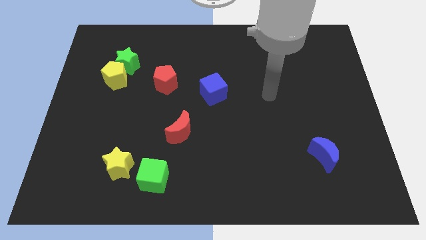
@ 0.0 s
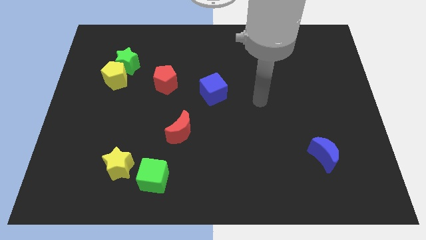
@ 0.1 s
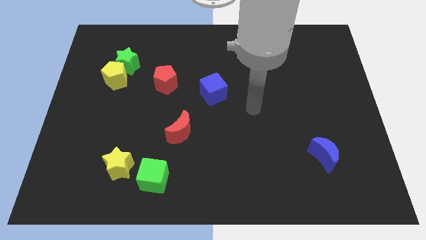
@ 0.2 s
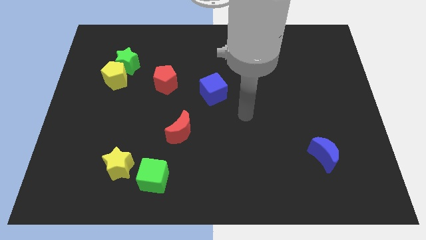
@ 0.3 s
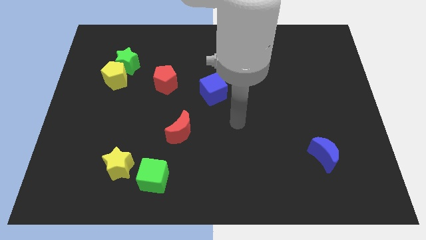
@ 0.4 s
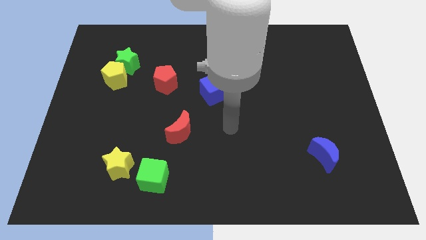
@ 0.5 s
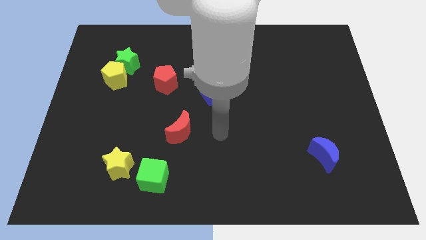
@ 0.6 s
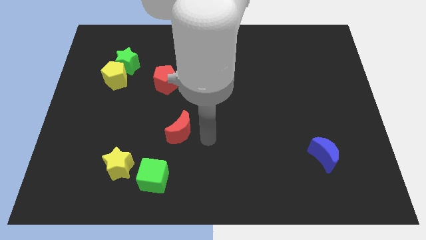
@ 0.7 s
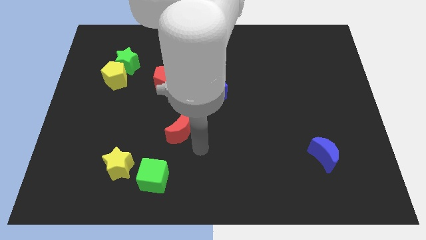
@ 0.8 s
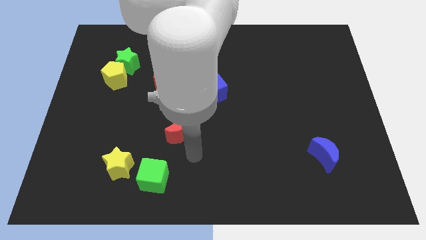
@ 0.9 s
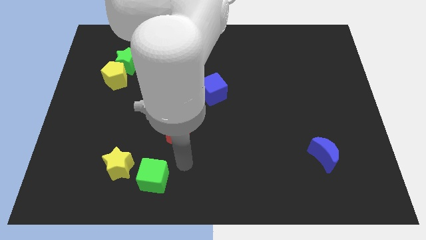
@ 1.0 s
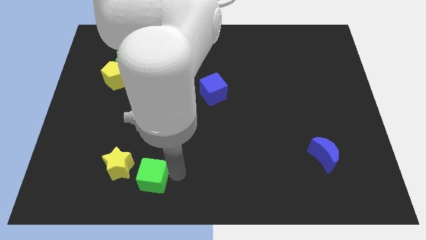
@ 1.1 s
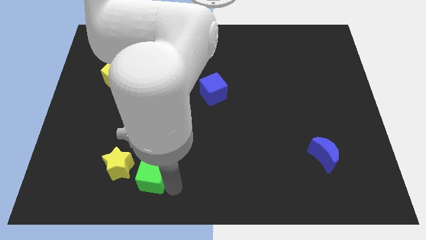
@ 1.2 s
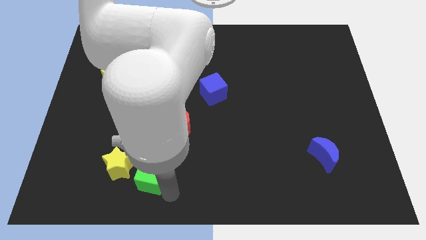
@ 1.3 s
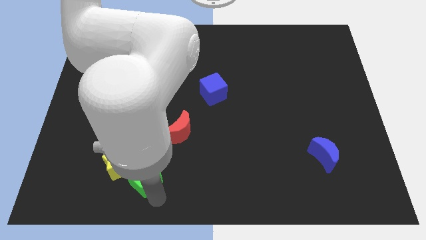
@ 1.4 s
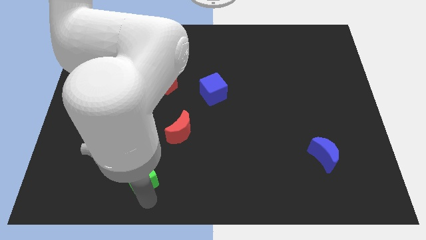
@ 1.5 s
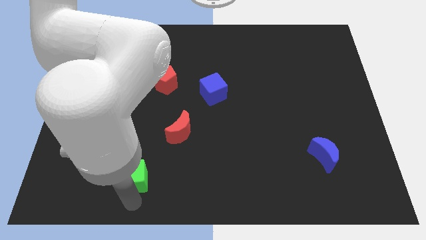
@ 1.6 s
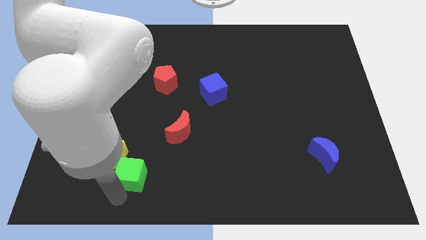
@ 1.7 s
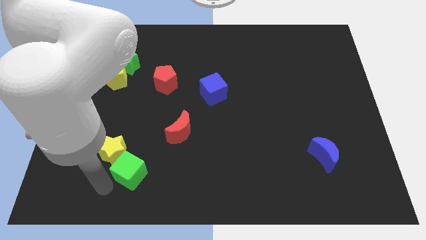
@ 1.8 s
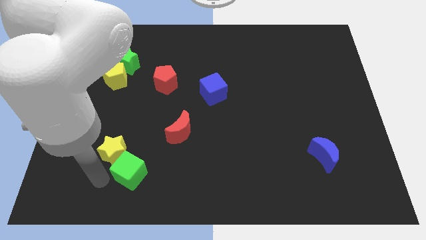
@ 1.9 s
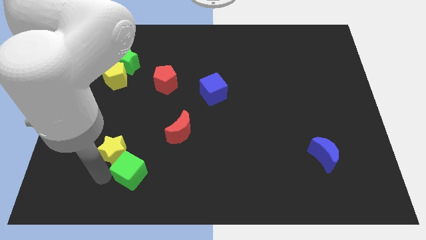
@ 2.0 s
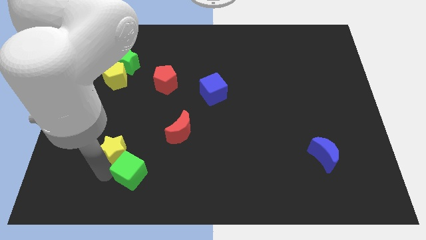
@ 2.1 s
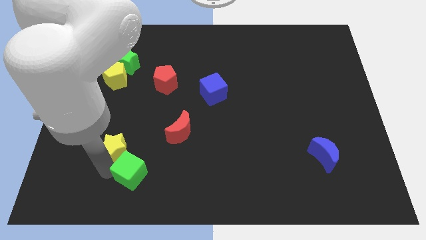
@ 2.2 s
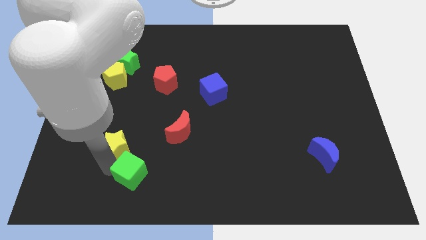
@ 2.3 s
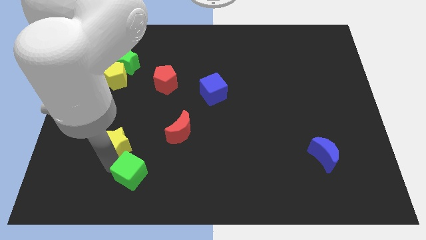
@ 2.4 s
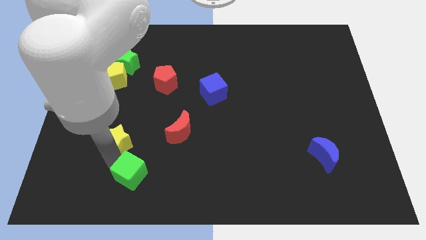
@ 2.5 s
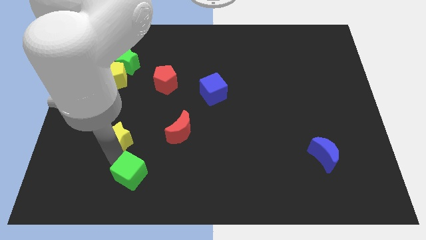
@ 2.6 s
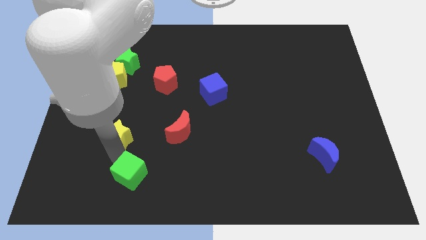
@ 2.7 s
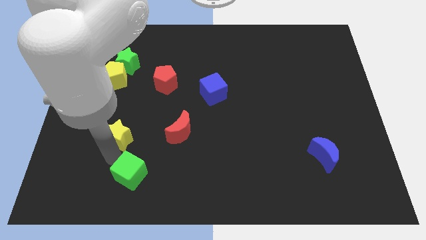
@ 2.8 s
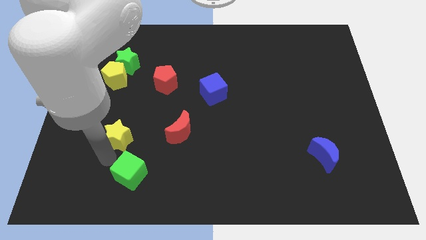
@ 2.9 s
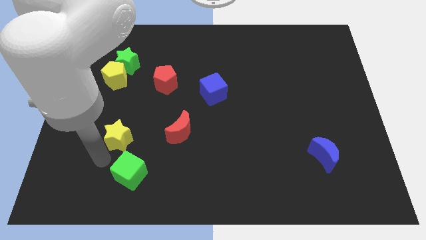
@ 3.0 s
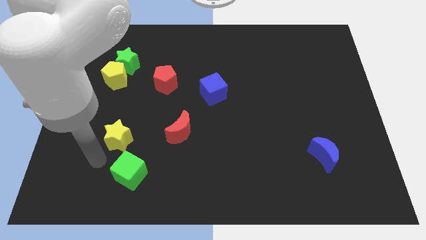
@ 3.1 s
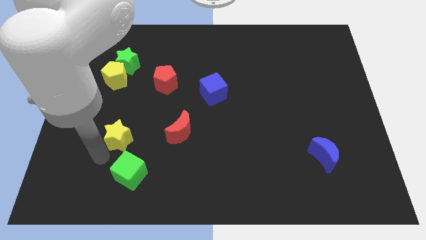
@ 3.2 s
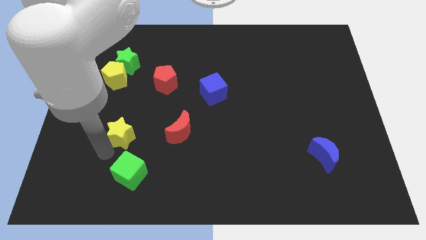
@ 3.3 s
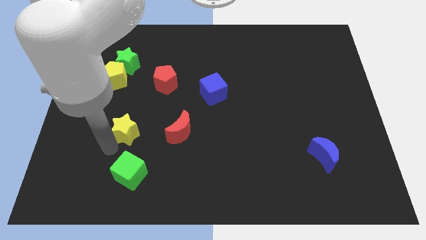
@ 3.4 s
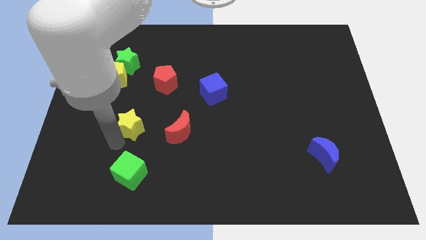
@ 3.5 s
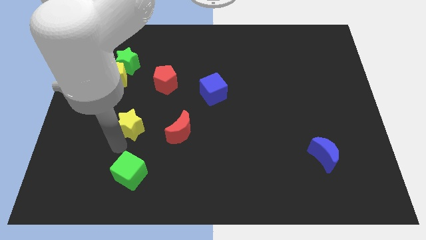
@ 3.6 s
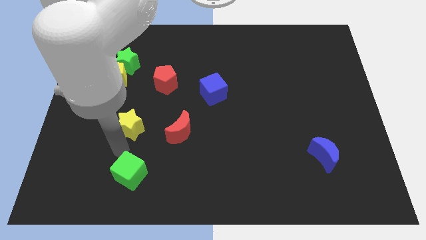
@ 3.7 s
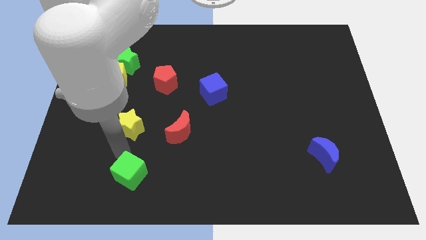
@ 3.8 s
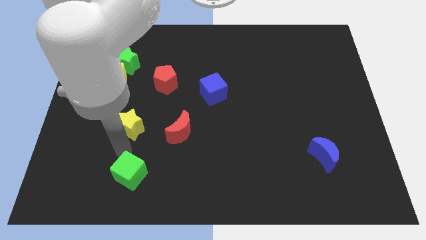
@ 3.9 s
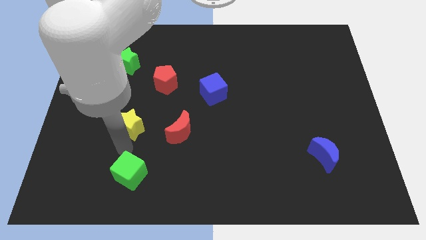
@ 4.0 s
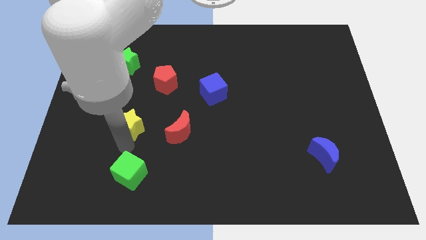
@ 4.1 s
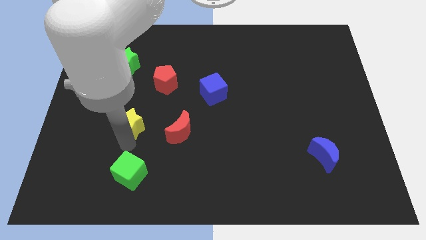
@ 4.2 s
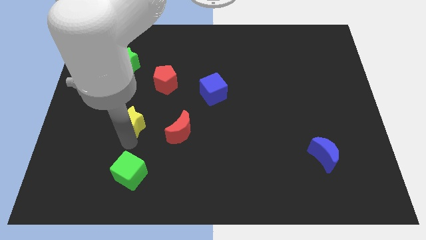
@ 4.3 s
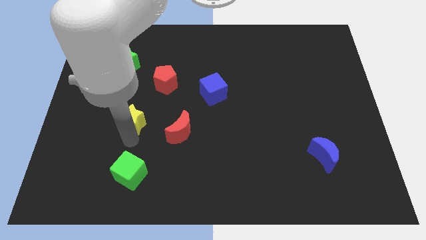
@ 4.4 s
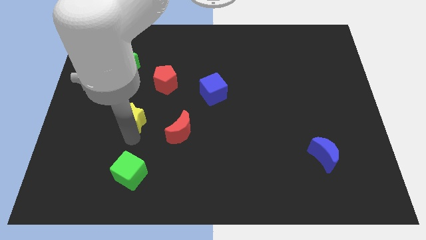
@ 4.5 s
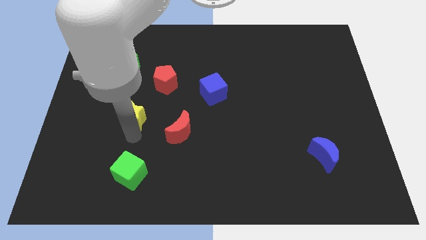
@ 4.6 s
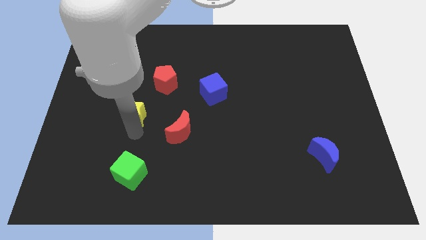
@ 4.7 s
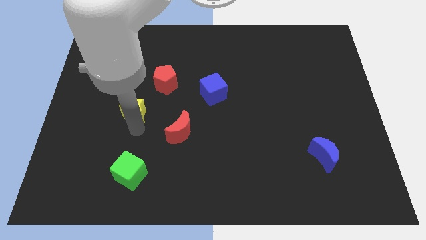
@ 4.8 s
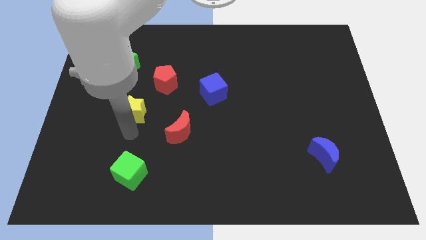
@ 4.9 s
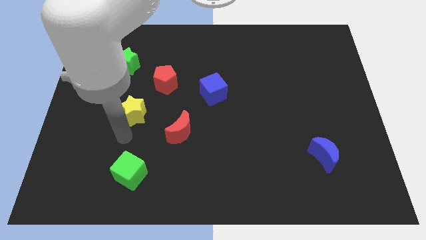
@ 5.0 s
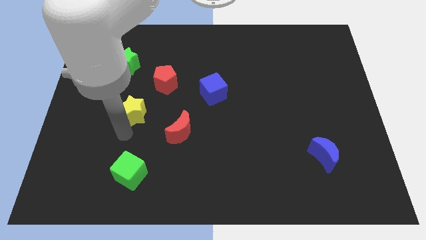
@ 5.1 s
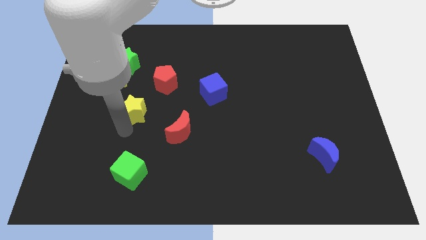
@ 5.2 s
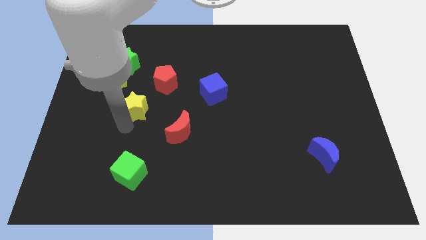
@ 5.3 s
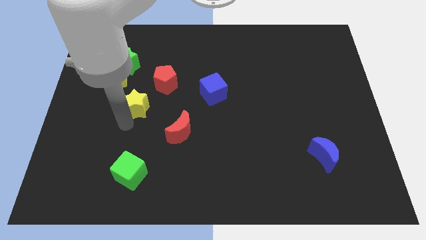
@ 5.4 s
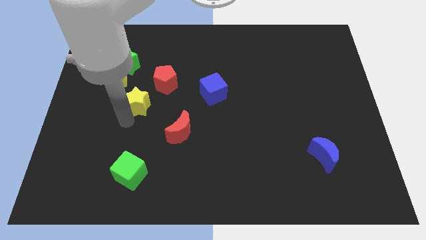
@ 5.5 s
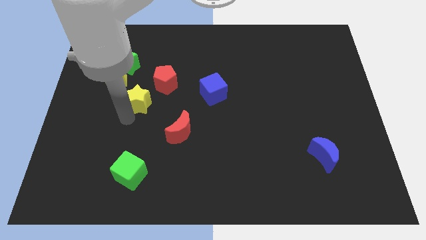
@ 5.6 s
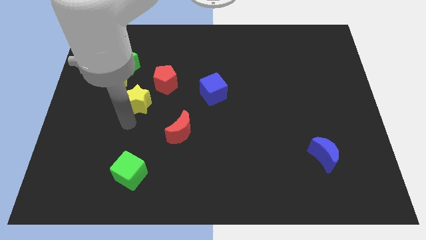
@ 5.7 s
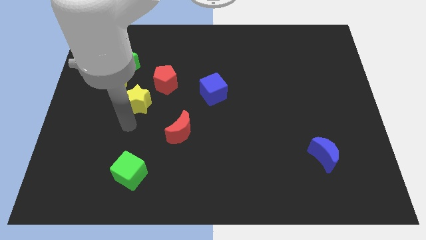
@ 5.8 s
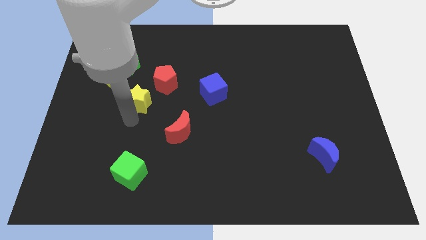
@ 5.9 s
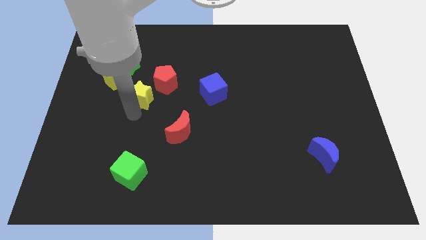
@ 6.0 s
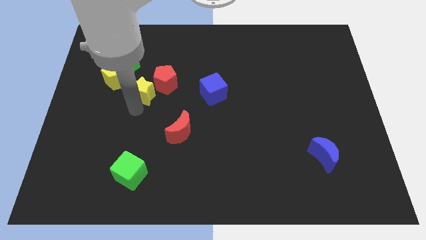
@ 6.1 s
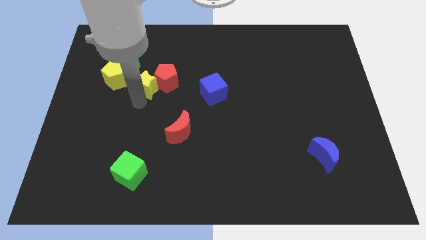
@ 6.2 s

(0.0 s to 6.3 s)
push the yellow star upwards

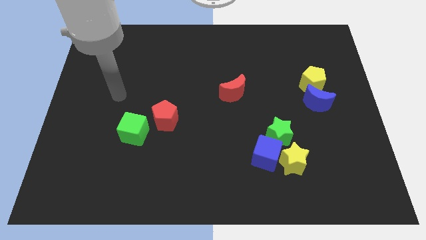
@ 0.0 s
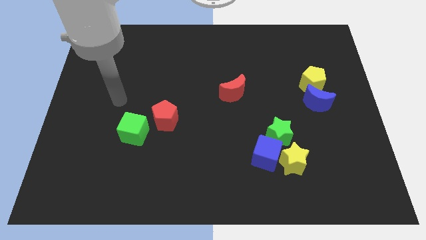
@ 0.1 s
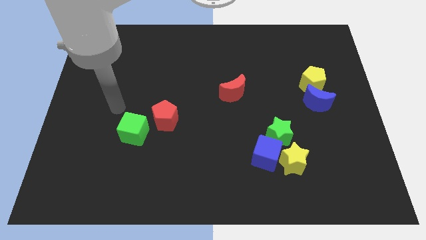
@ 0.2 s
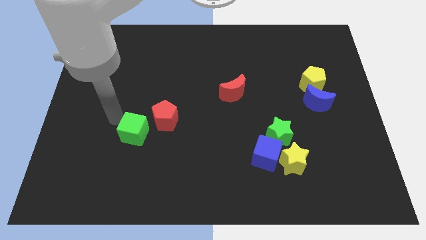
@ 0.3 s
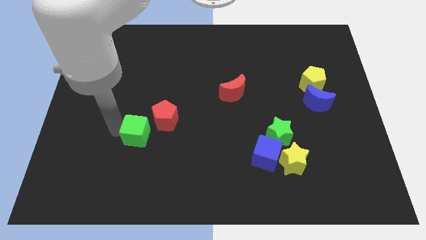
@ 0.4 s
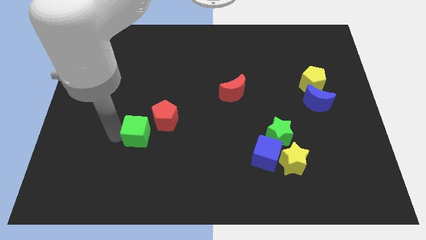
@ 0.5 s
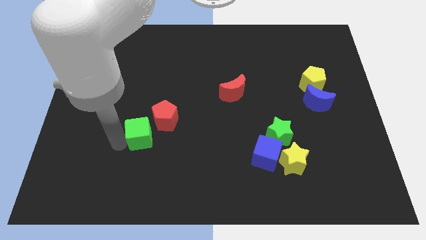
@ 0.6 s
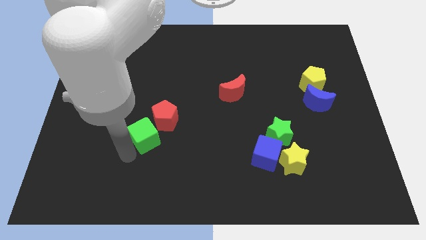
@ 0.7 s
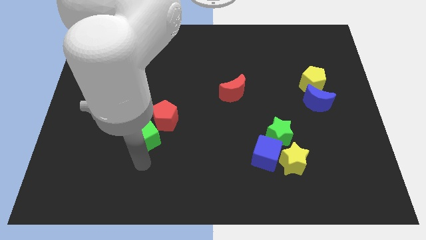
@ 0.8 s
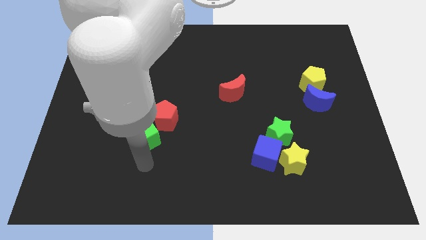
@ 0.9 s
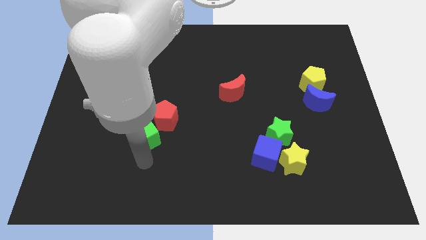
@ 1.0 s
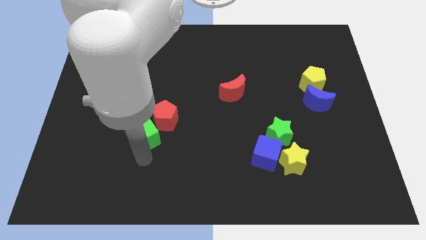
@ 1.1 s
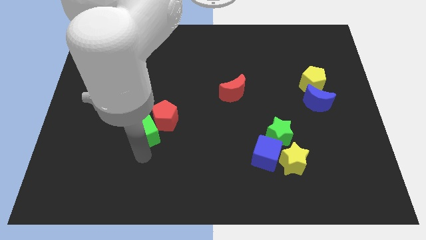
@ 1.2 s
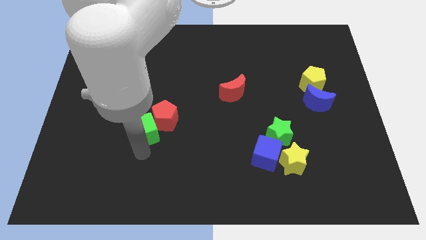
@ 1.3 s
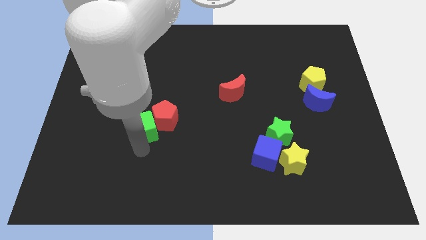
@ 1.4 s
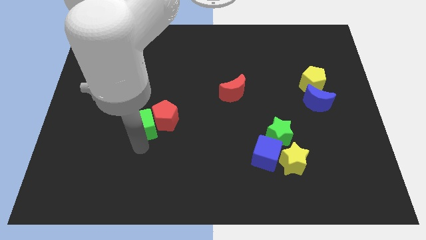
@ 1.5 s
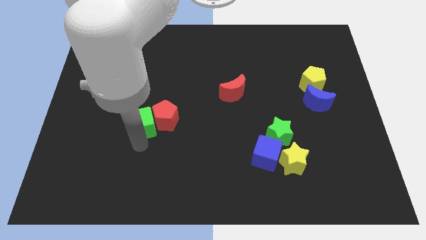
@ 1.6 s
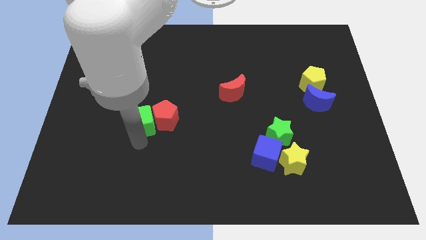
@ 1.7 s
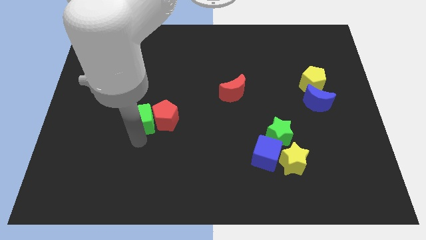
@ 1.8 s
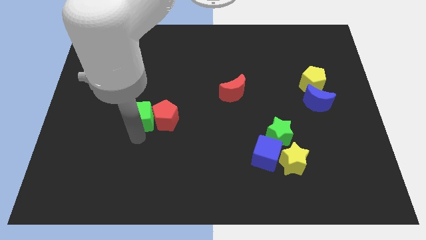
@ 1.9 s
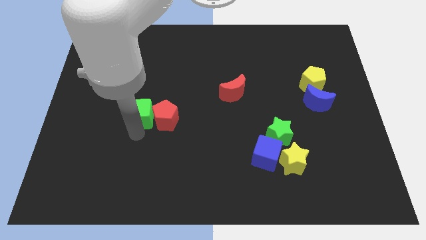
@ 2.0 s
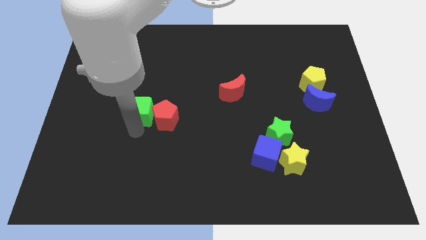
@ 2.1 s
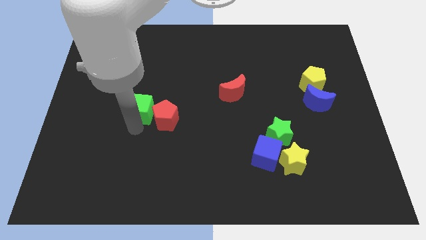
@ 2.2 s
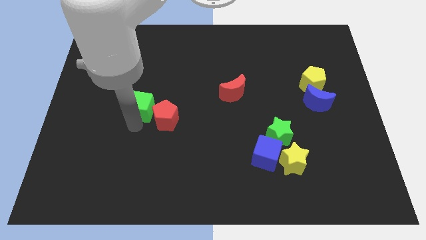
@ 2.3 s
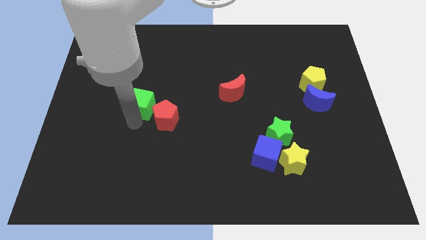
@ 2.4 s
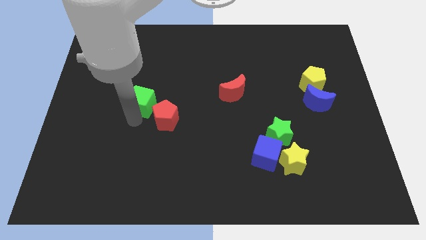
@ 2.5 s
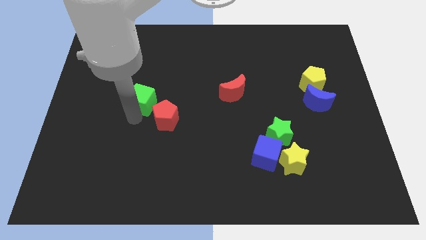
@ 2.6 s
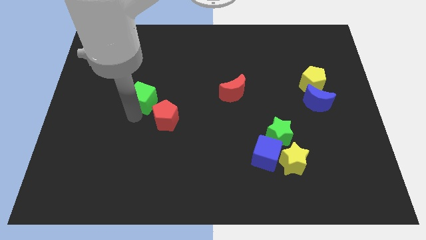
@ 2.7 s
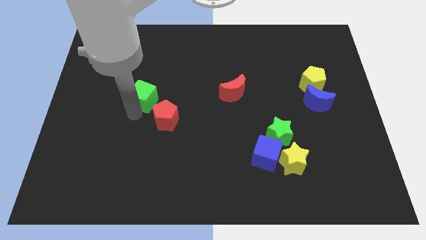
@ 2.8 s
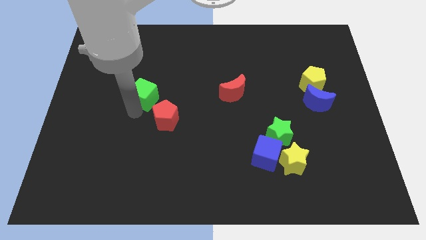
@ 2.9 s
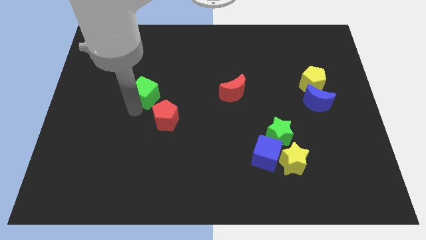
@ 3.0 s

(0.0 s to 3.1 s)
push the green cube somewhat diagonally upwards and to the right
